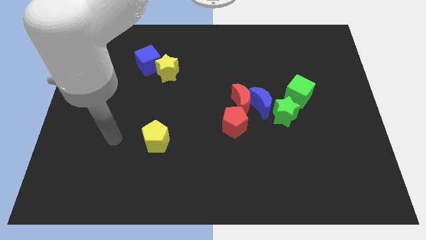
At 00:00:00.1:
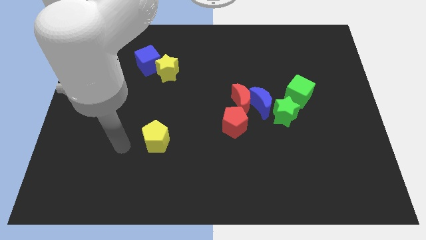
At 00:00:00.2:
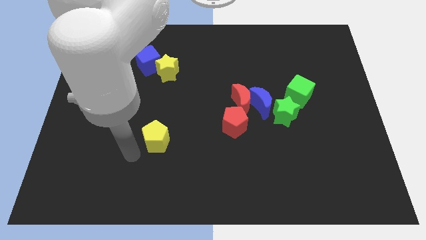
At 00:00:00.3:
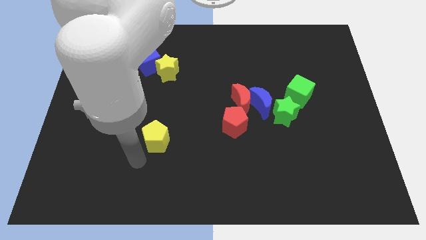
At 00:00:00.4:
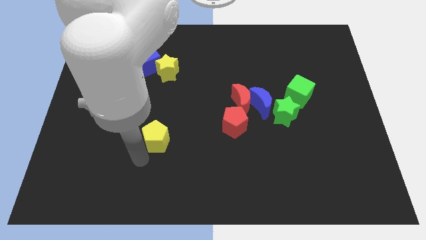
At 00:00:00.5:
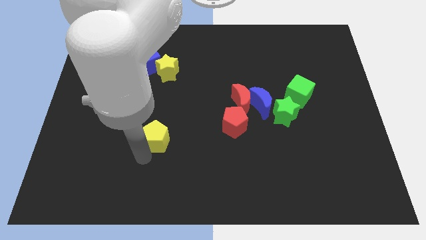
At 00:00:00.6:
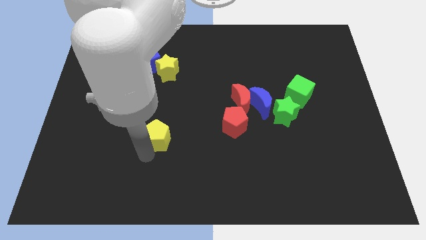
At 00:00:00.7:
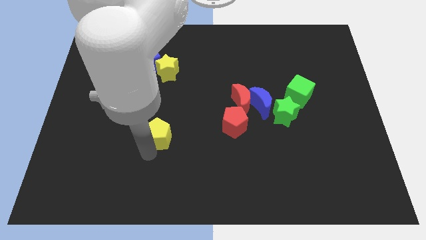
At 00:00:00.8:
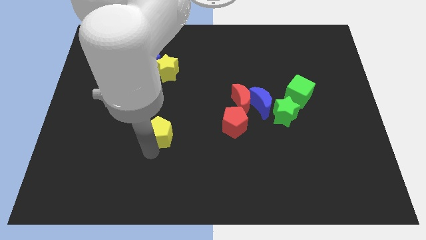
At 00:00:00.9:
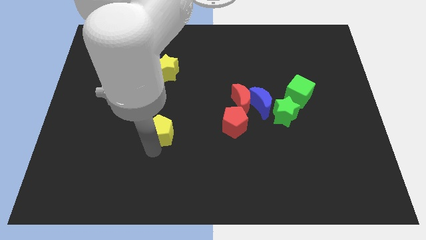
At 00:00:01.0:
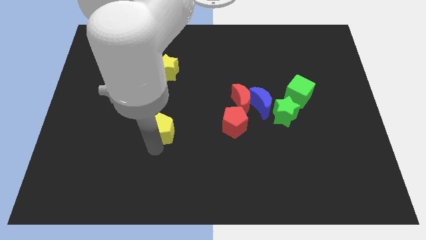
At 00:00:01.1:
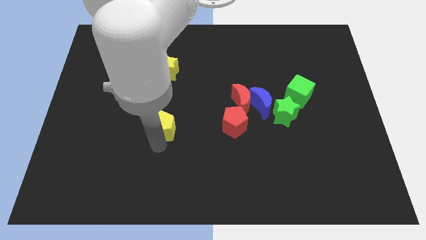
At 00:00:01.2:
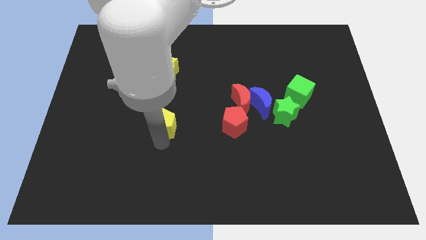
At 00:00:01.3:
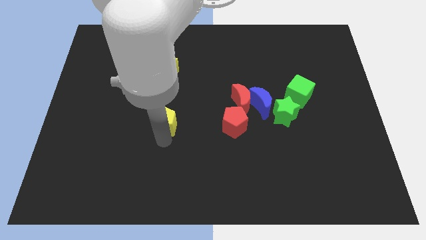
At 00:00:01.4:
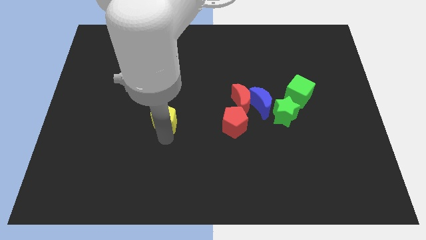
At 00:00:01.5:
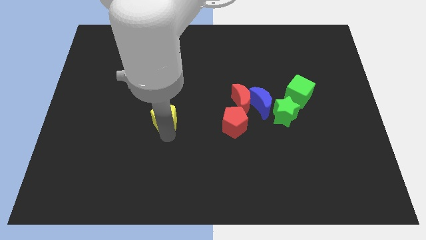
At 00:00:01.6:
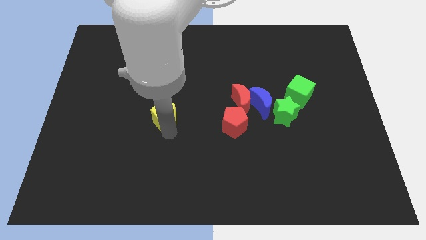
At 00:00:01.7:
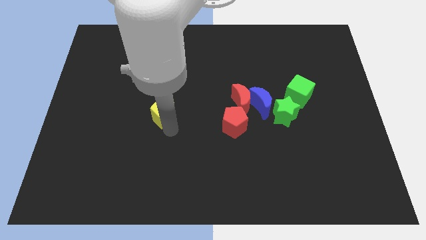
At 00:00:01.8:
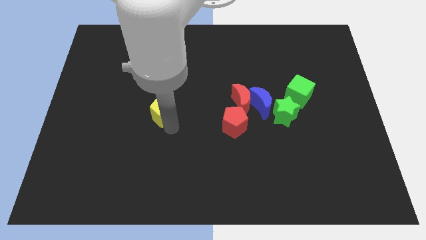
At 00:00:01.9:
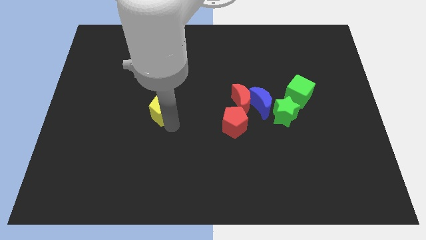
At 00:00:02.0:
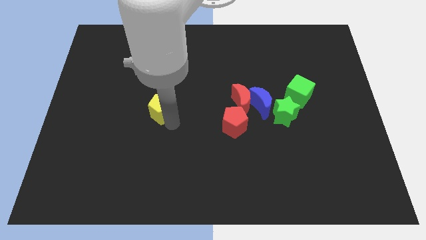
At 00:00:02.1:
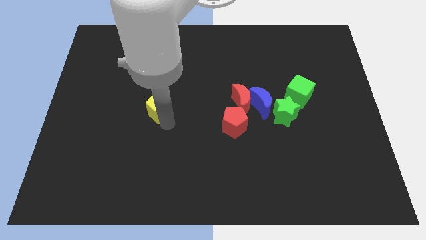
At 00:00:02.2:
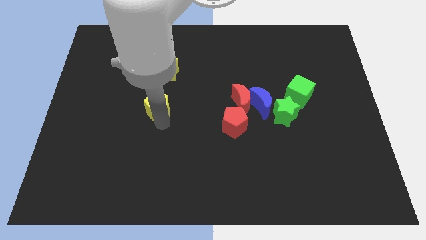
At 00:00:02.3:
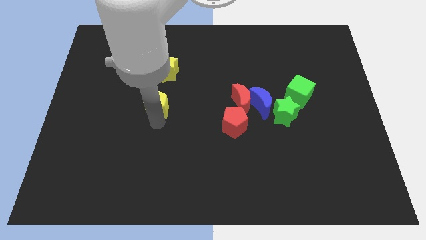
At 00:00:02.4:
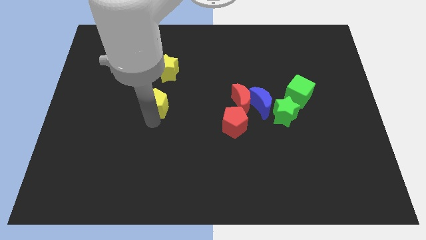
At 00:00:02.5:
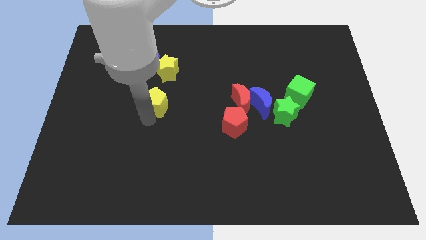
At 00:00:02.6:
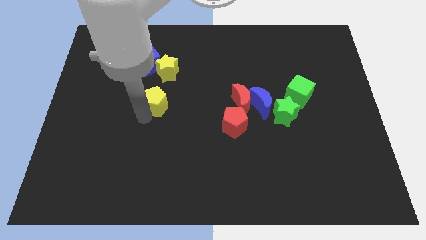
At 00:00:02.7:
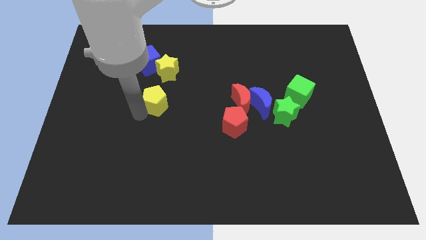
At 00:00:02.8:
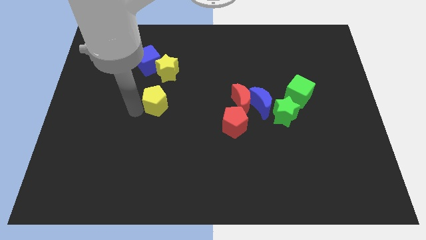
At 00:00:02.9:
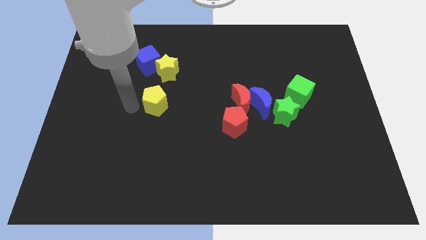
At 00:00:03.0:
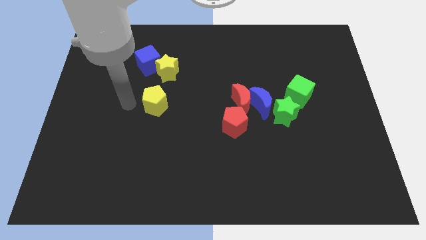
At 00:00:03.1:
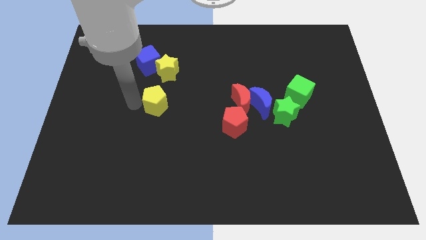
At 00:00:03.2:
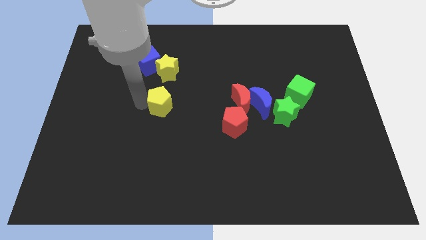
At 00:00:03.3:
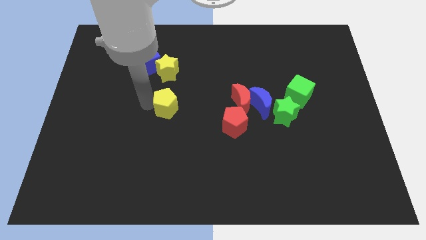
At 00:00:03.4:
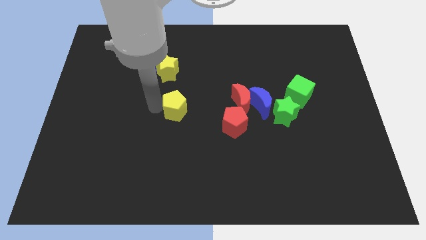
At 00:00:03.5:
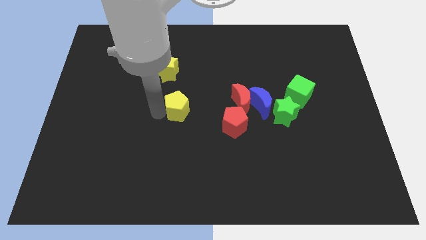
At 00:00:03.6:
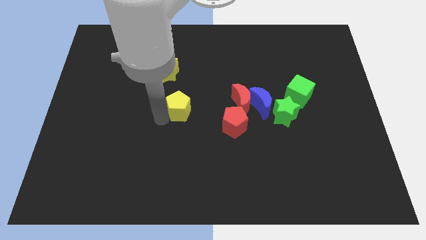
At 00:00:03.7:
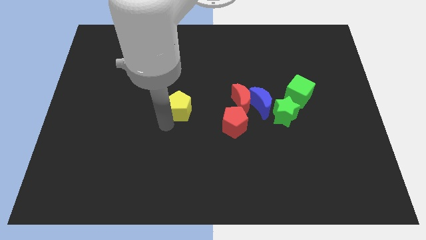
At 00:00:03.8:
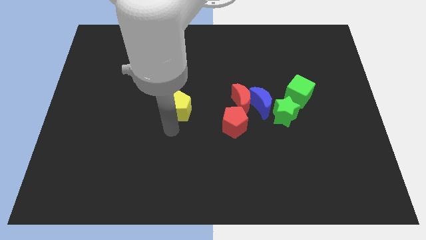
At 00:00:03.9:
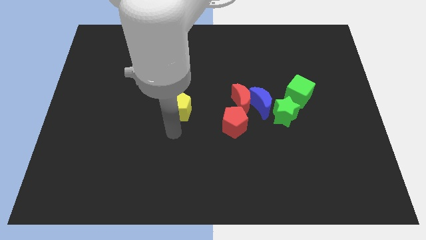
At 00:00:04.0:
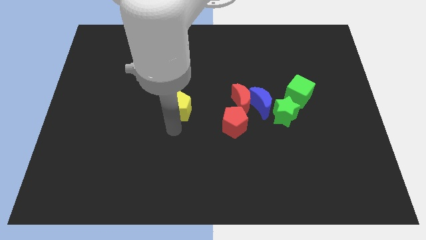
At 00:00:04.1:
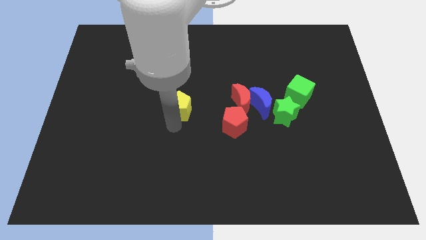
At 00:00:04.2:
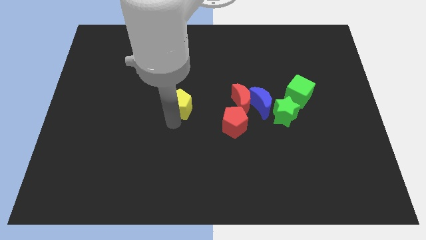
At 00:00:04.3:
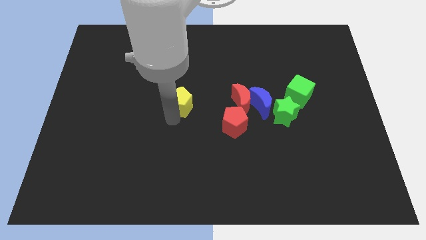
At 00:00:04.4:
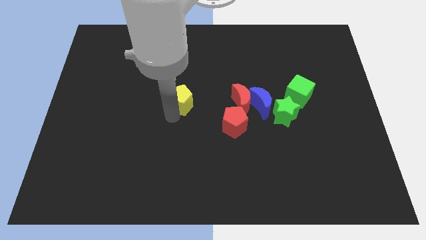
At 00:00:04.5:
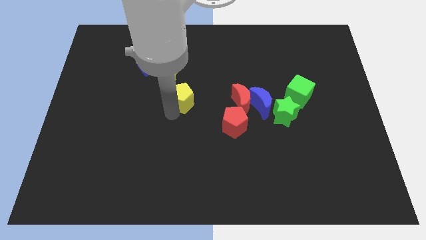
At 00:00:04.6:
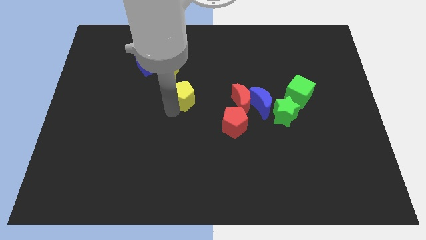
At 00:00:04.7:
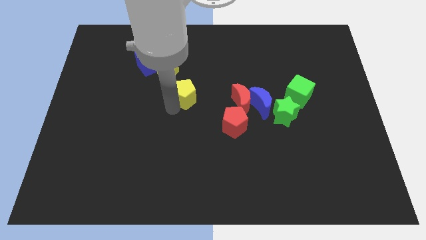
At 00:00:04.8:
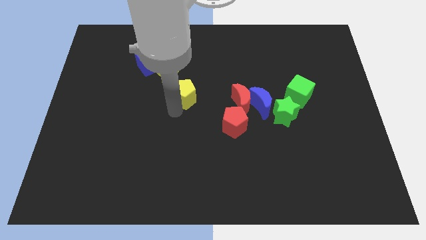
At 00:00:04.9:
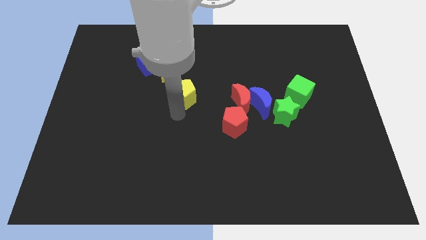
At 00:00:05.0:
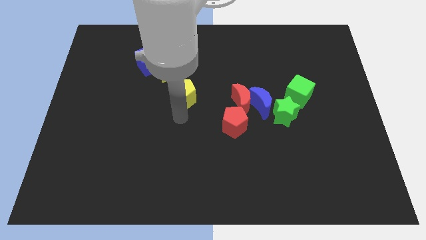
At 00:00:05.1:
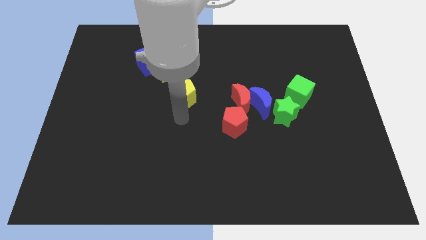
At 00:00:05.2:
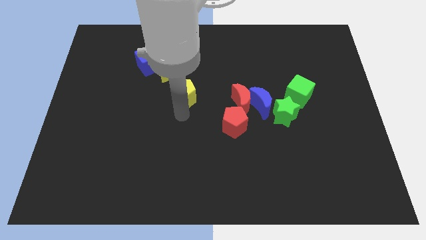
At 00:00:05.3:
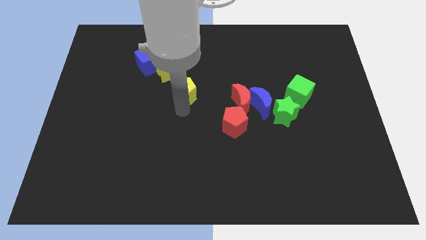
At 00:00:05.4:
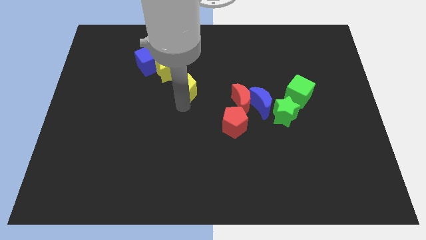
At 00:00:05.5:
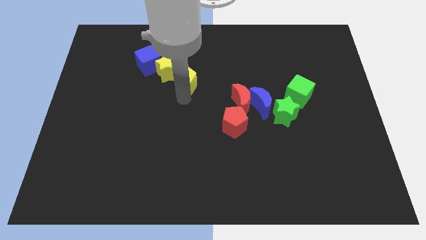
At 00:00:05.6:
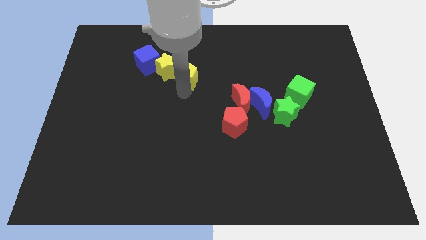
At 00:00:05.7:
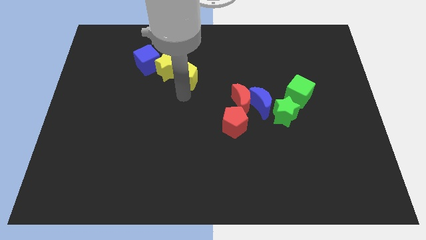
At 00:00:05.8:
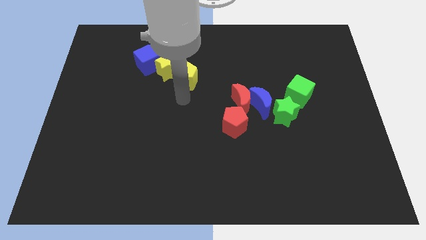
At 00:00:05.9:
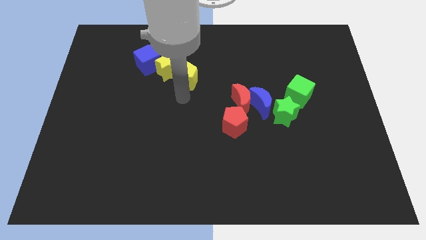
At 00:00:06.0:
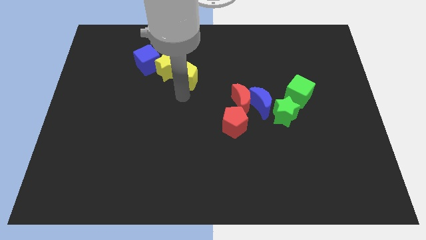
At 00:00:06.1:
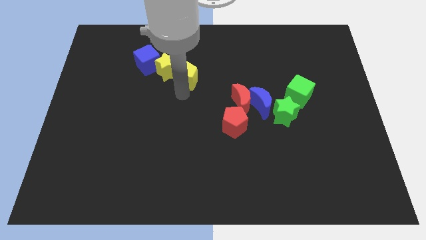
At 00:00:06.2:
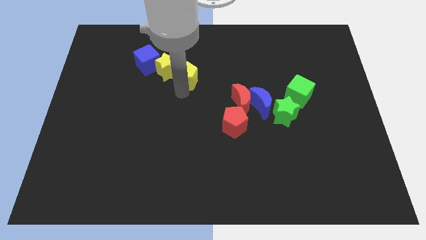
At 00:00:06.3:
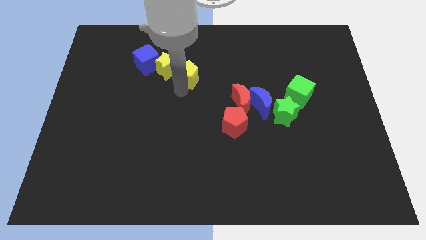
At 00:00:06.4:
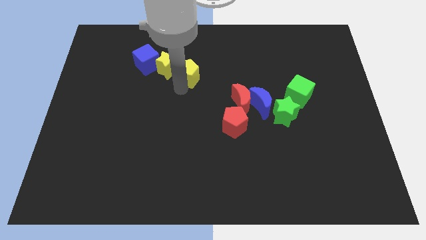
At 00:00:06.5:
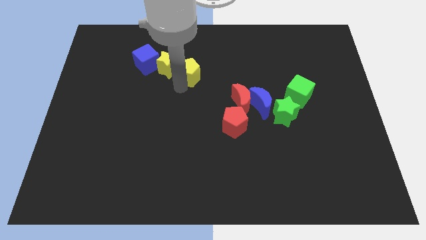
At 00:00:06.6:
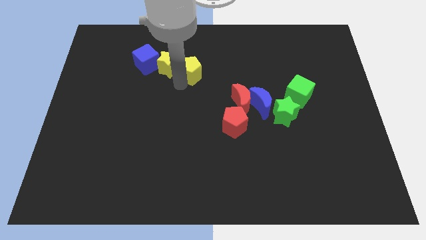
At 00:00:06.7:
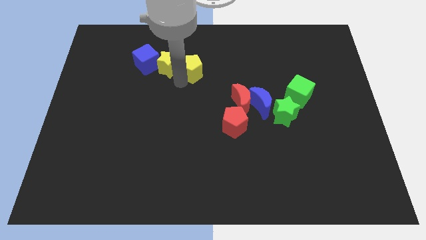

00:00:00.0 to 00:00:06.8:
push the yellow pentagon to the top right of the yellow star

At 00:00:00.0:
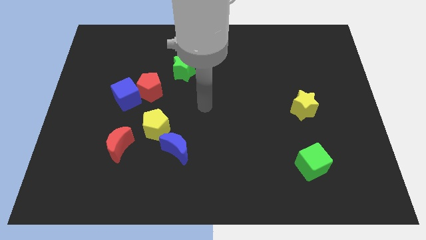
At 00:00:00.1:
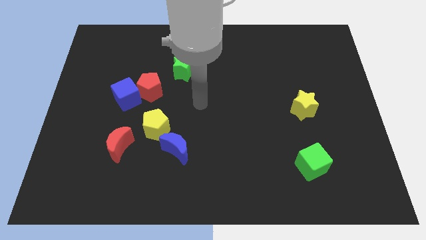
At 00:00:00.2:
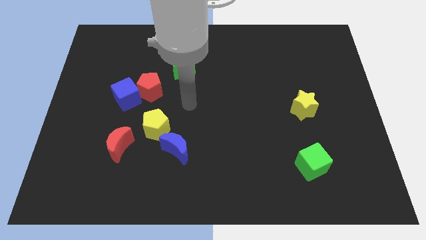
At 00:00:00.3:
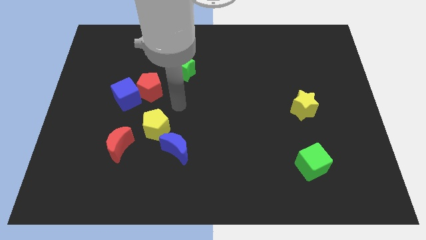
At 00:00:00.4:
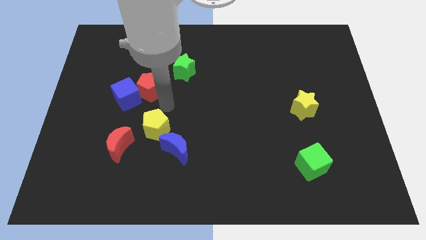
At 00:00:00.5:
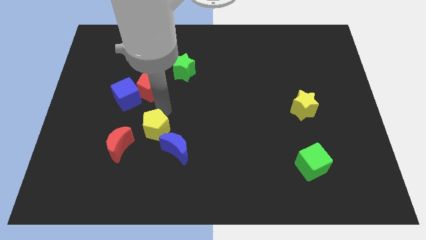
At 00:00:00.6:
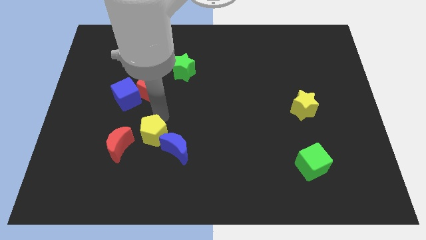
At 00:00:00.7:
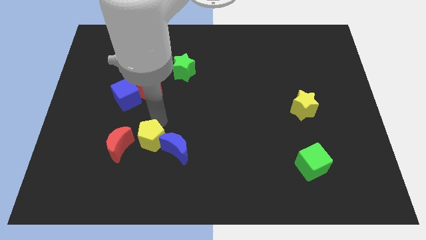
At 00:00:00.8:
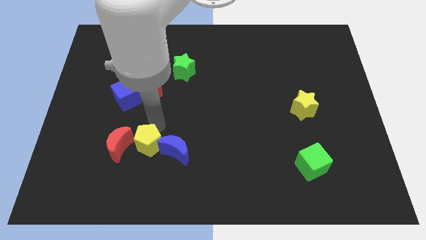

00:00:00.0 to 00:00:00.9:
put the yellow pentagon to the bottom right side of the red moon
